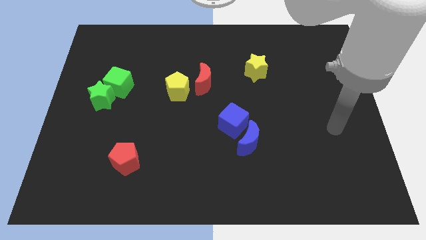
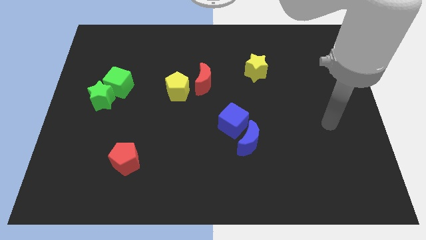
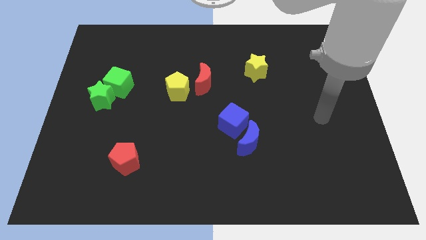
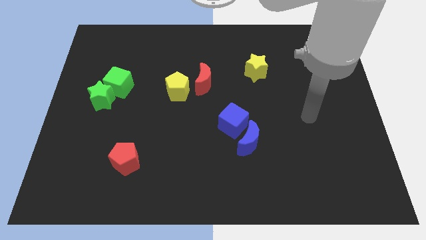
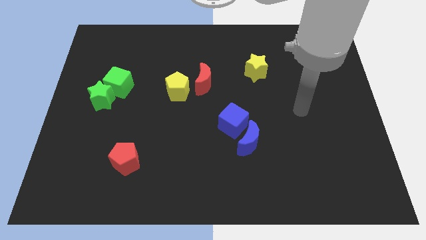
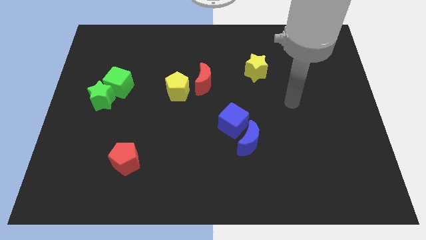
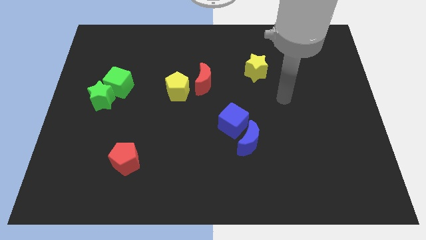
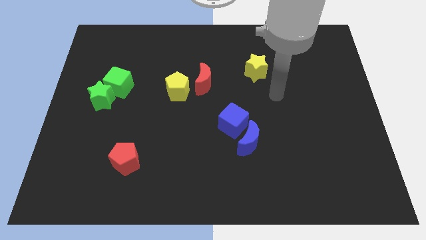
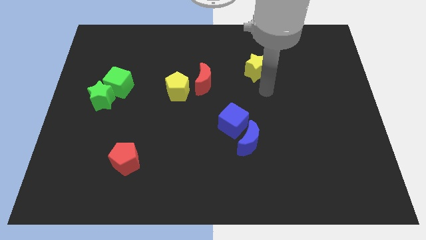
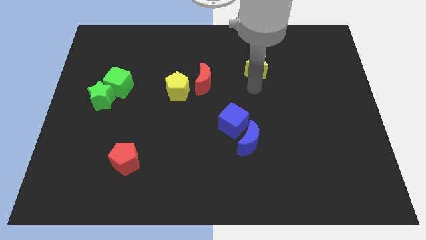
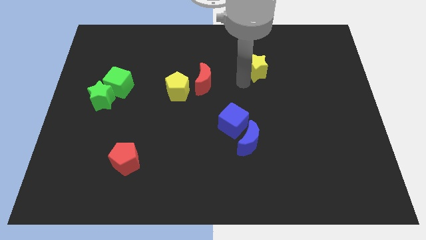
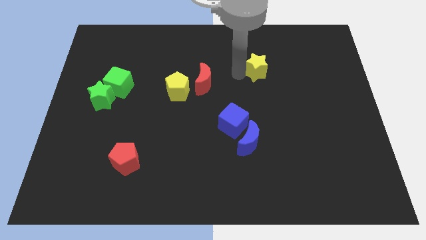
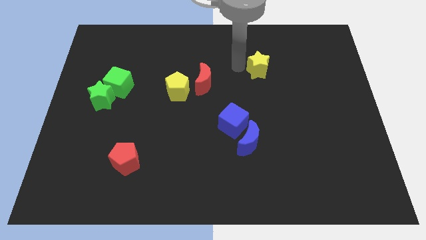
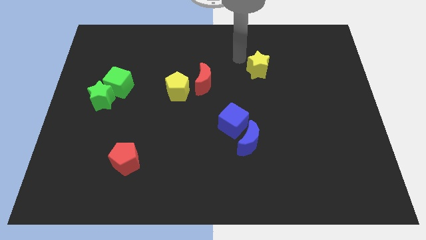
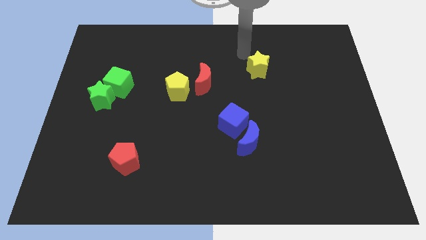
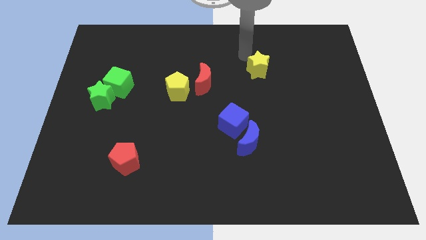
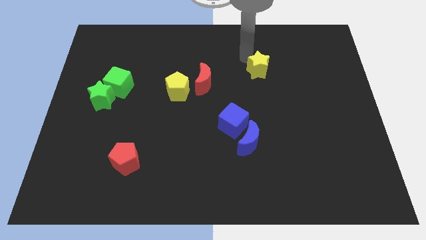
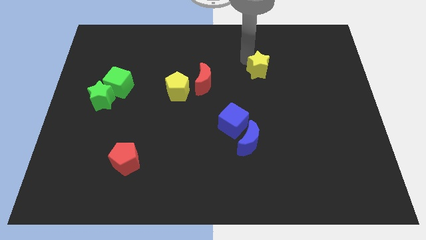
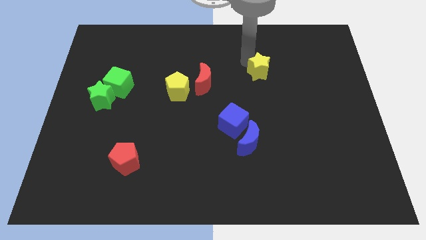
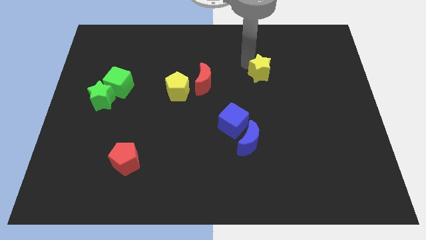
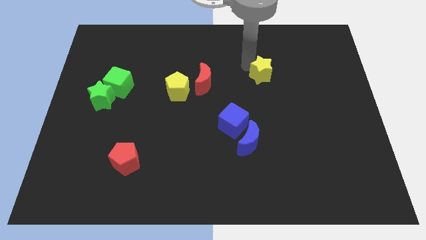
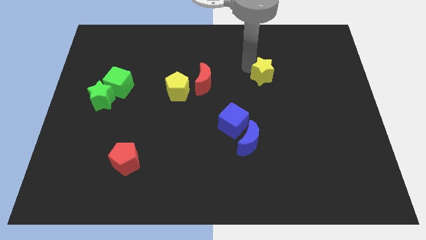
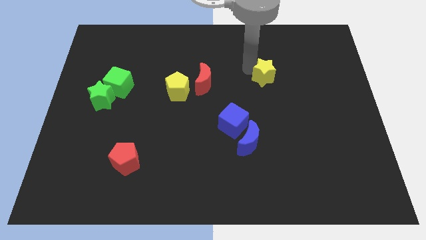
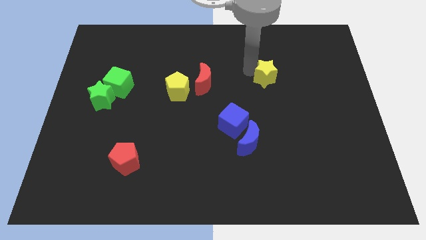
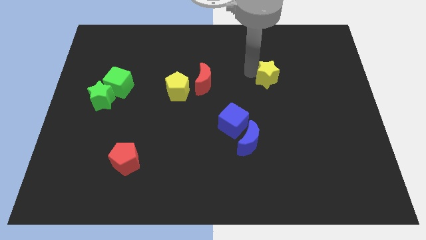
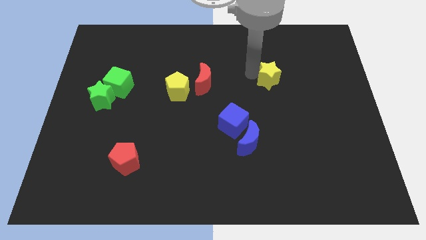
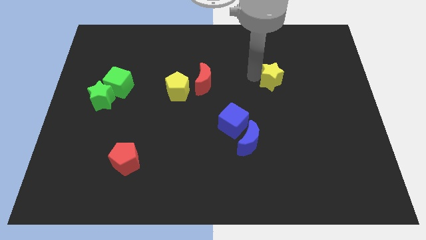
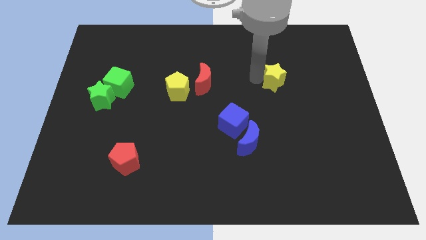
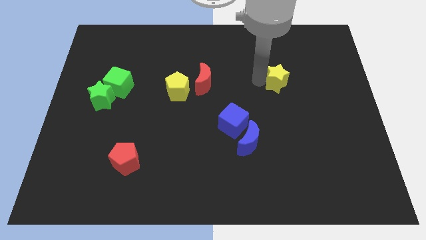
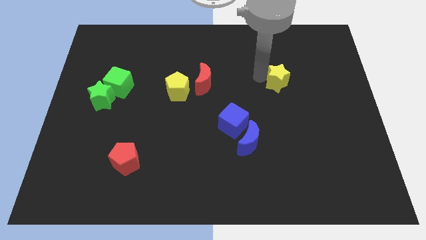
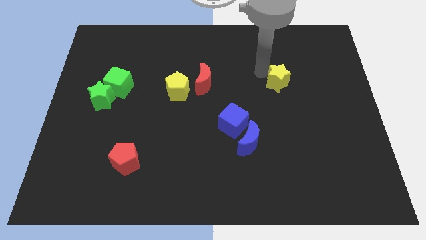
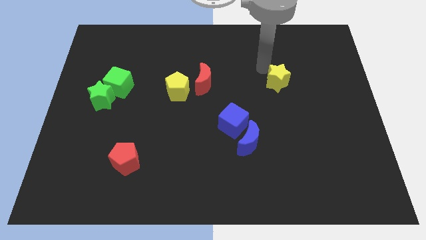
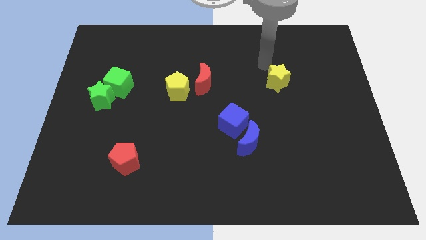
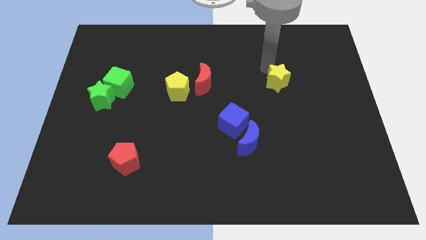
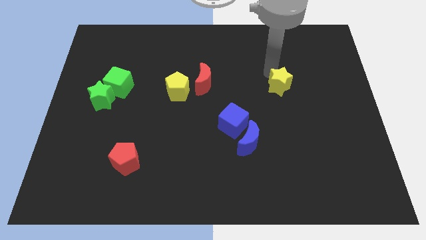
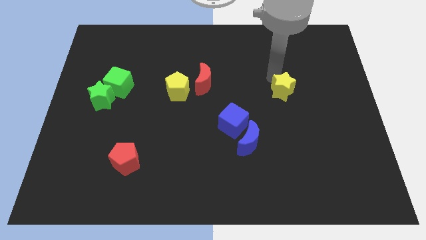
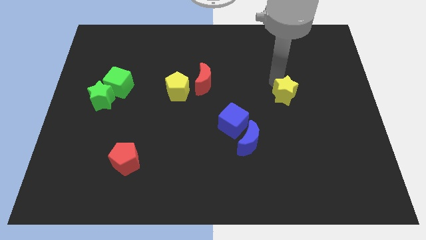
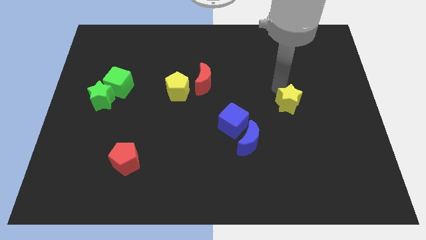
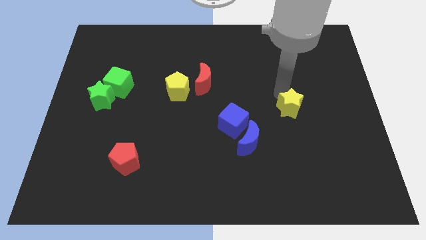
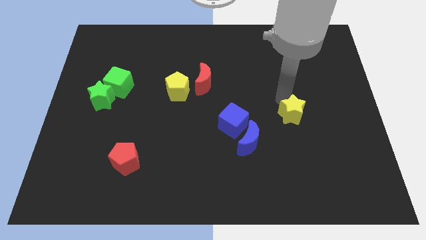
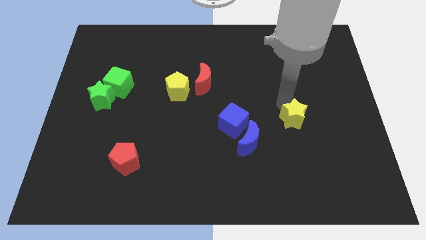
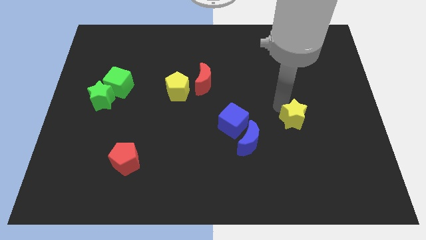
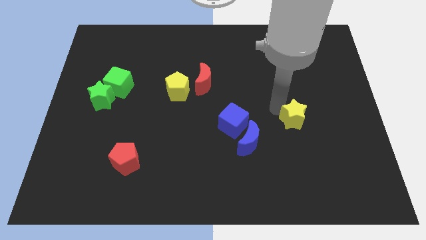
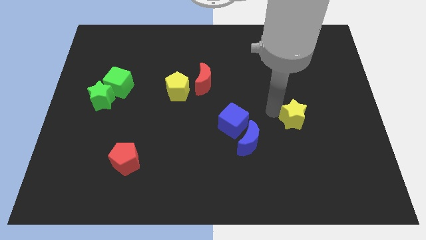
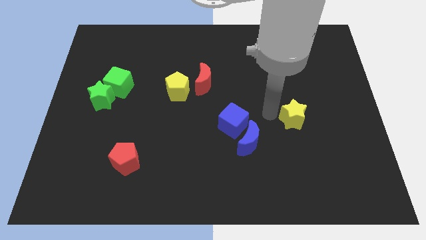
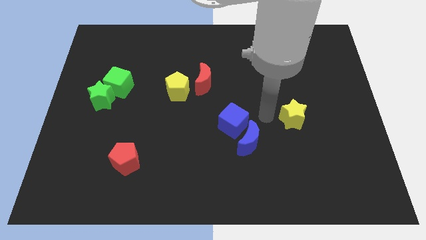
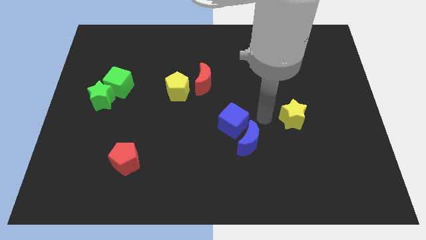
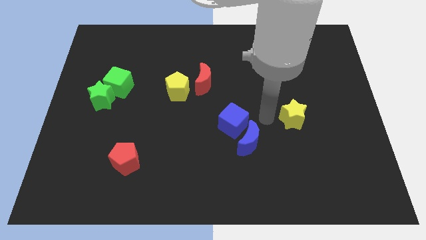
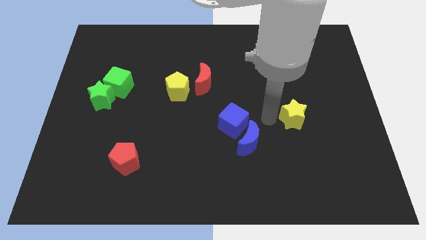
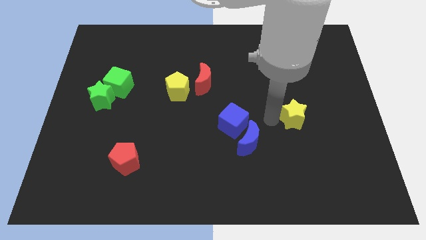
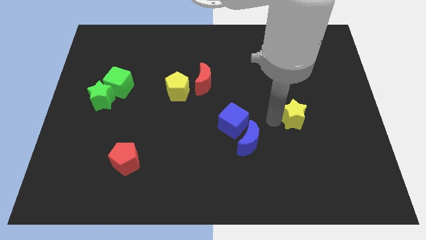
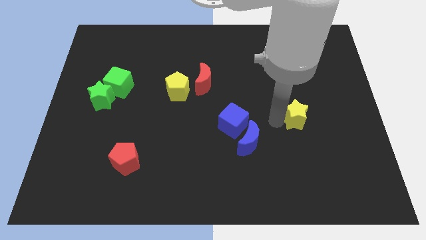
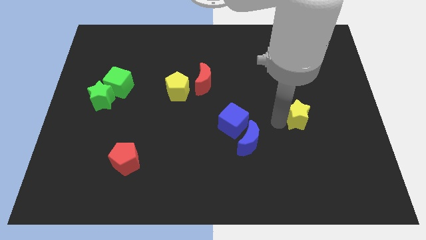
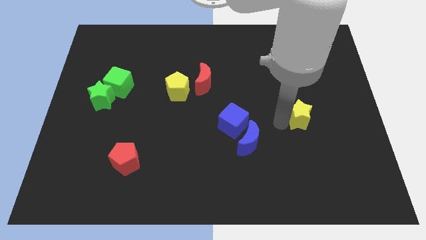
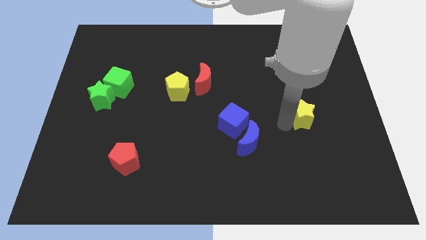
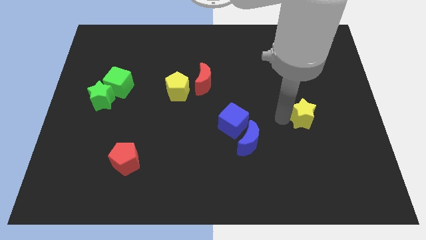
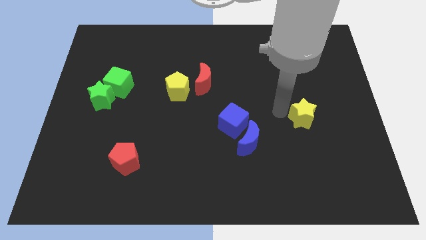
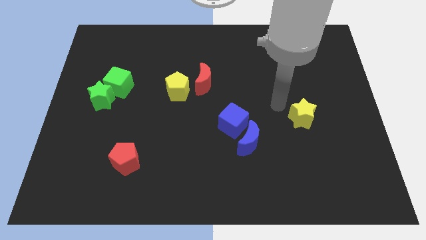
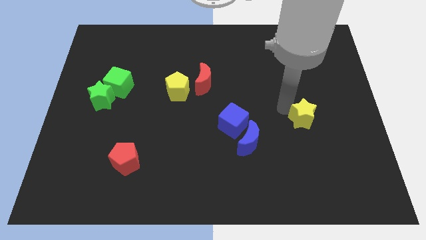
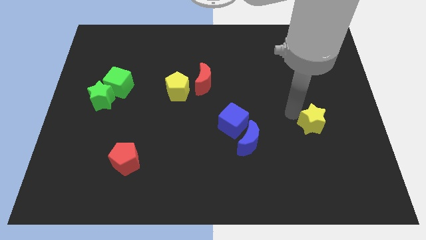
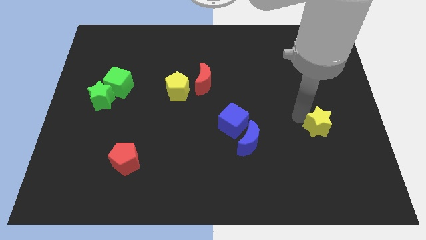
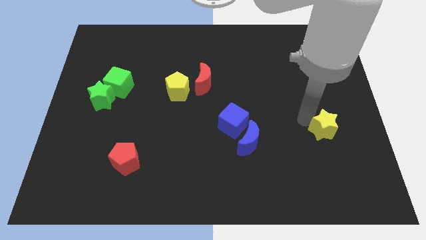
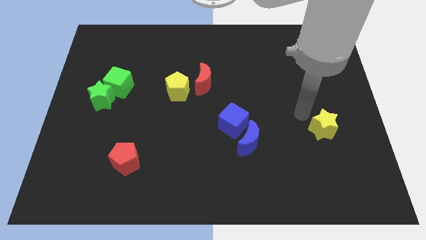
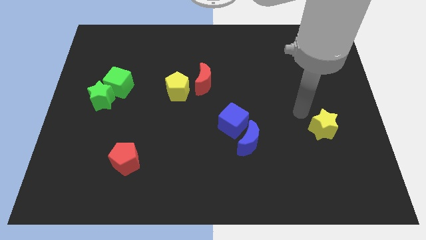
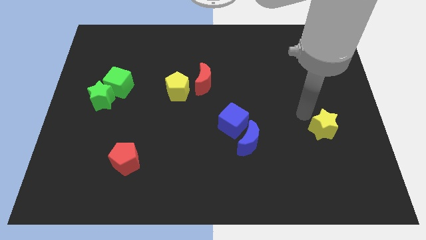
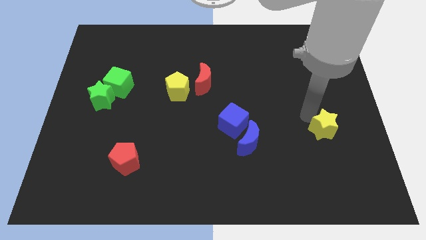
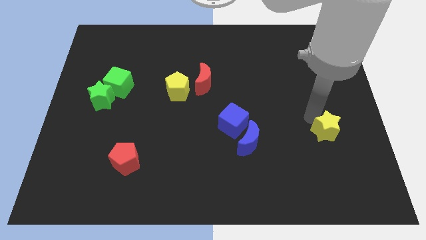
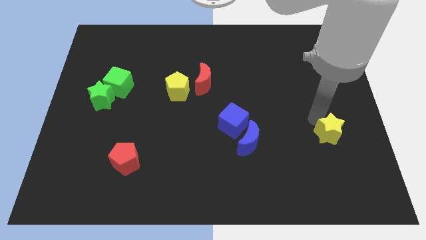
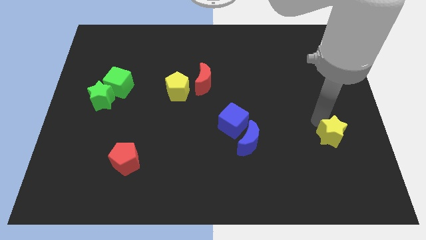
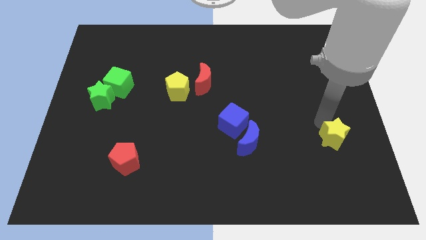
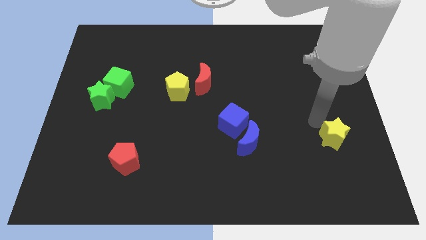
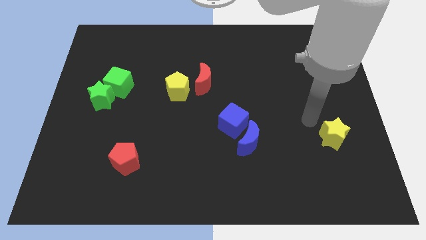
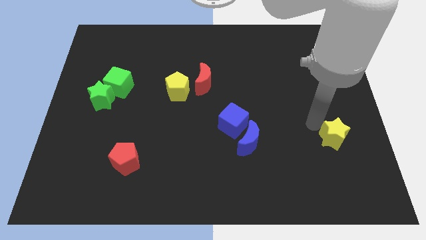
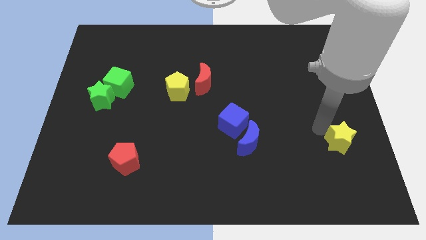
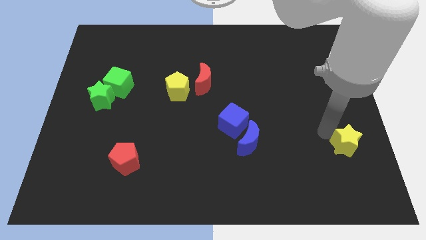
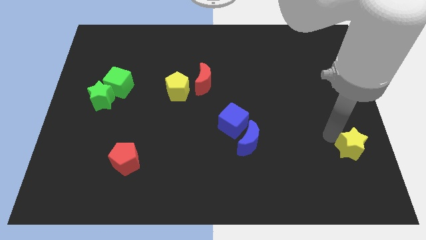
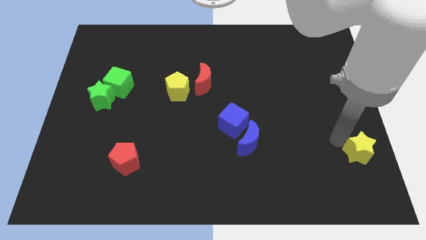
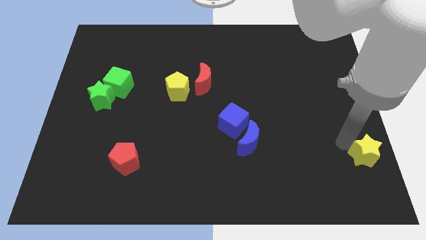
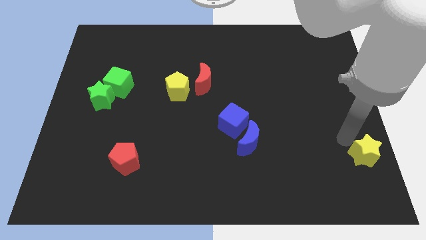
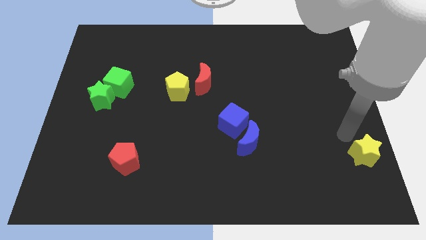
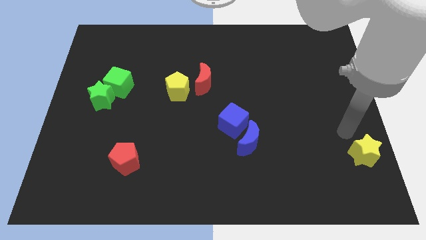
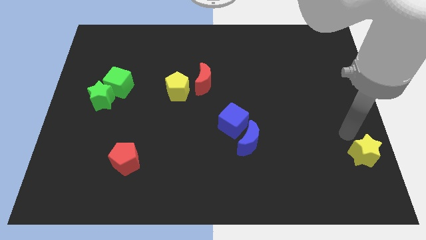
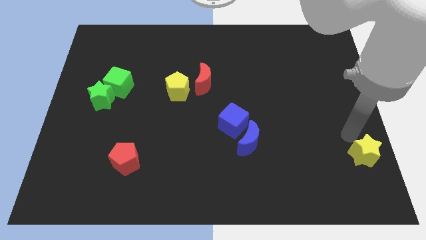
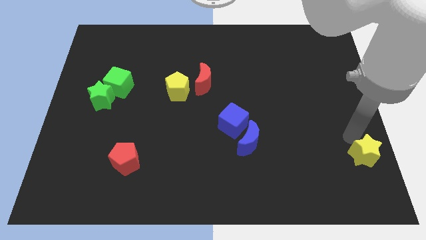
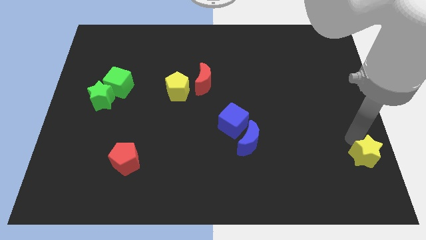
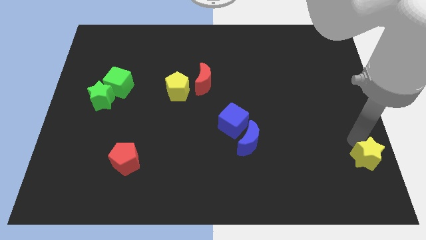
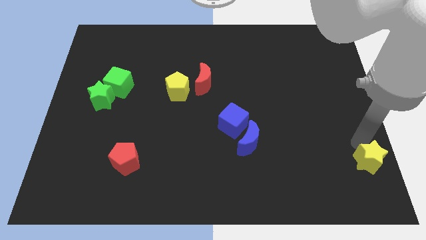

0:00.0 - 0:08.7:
push the yellow star to the bottom right of the board
